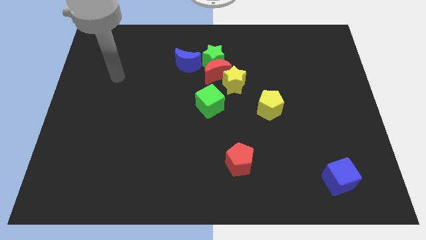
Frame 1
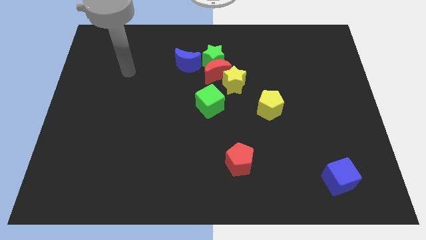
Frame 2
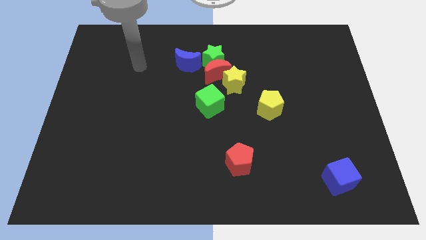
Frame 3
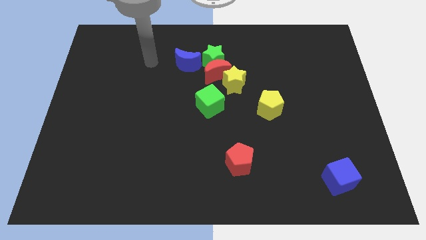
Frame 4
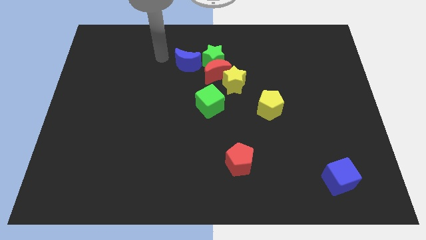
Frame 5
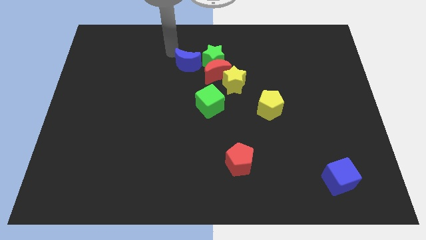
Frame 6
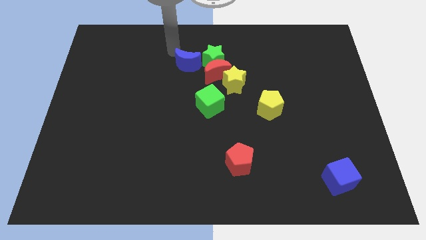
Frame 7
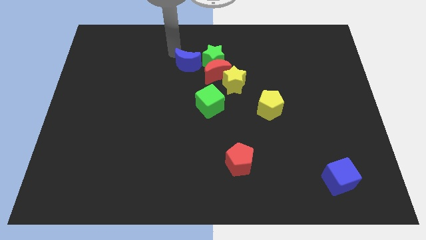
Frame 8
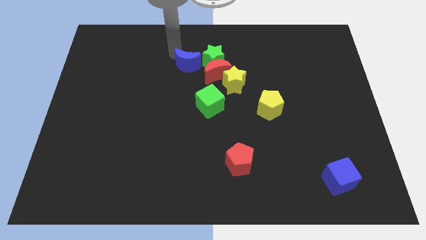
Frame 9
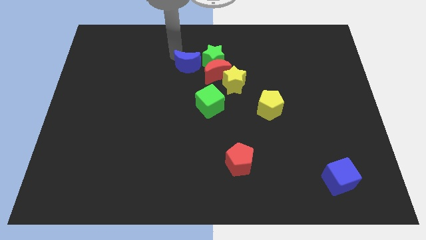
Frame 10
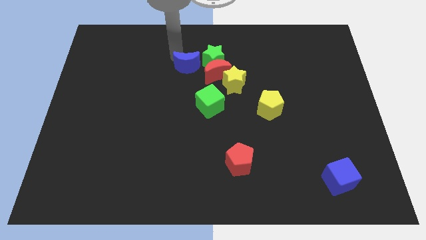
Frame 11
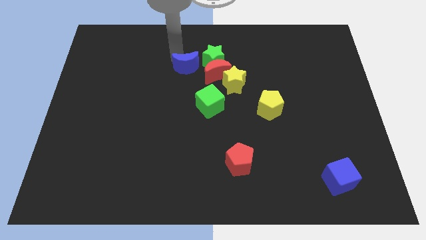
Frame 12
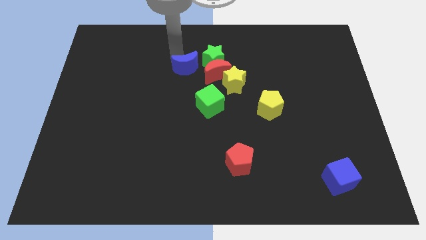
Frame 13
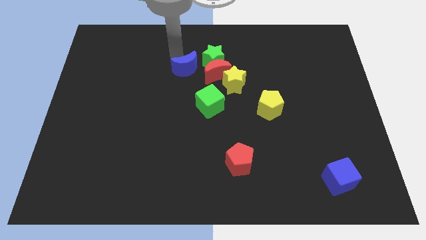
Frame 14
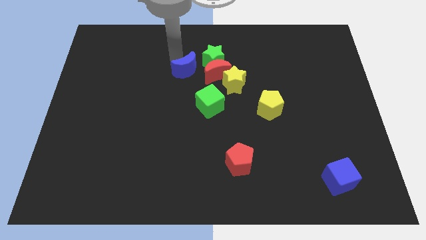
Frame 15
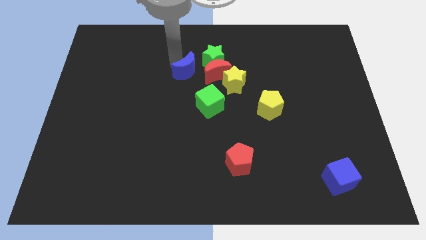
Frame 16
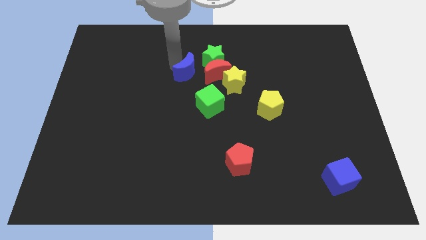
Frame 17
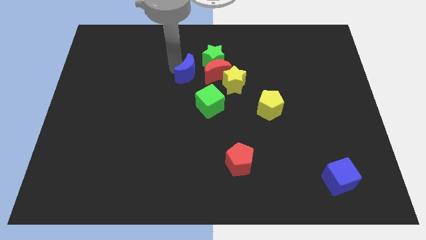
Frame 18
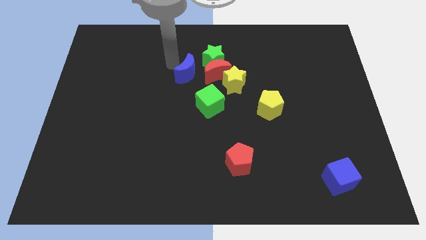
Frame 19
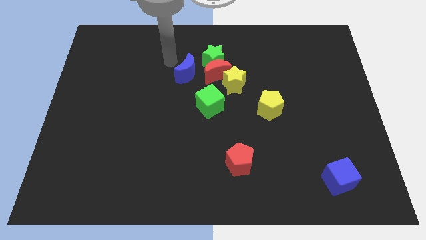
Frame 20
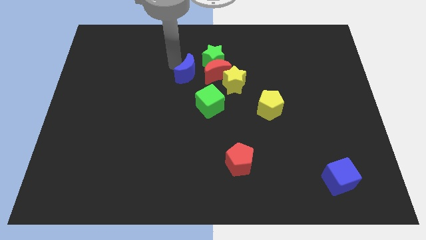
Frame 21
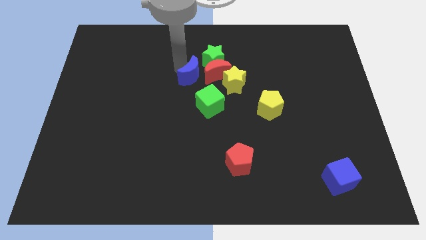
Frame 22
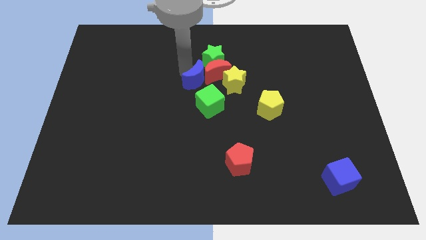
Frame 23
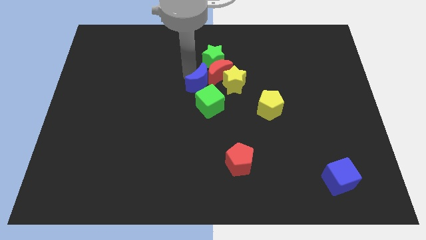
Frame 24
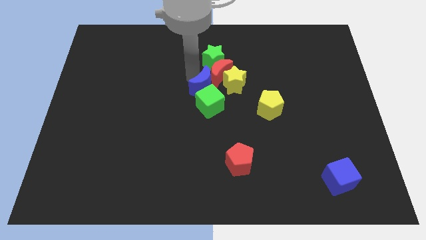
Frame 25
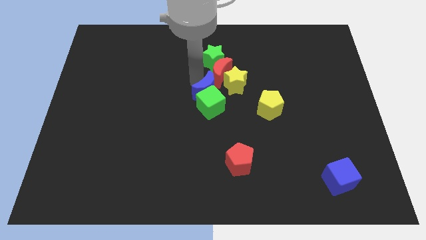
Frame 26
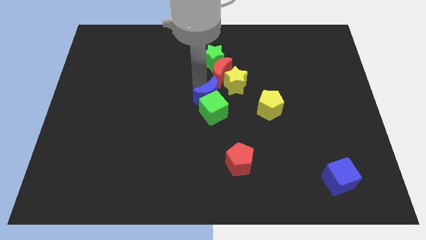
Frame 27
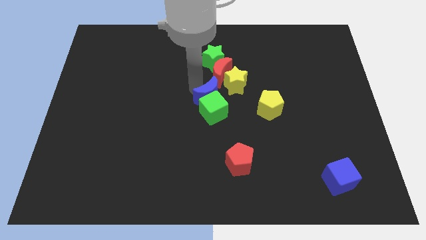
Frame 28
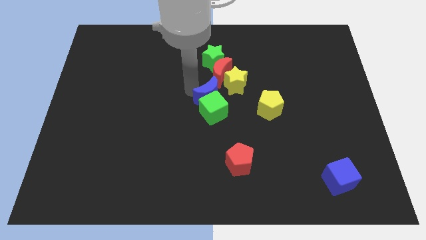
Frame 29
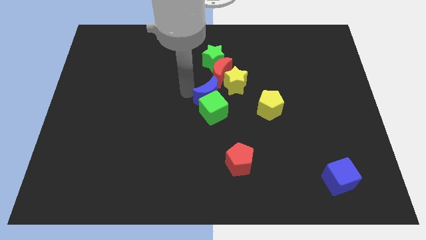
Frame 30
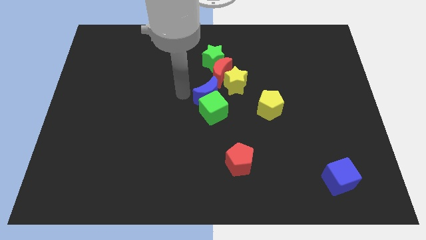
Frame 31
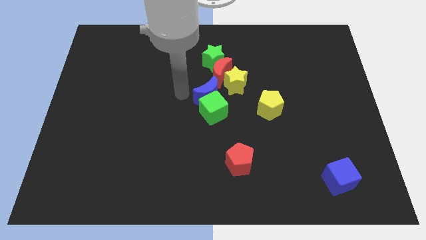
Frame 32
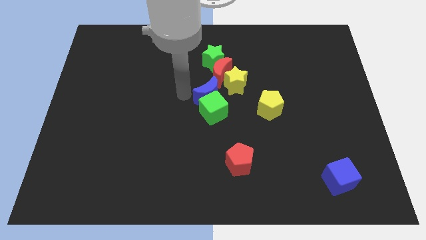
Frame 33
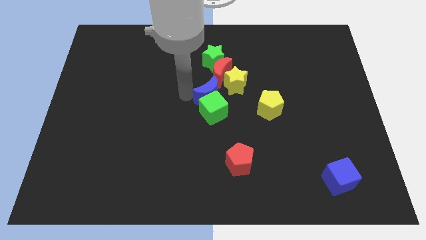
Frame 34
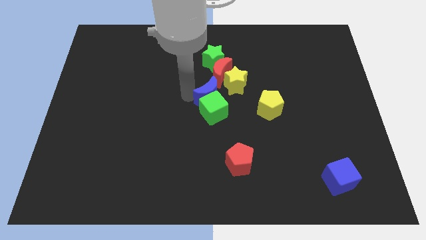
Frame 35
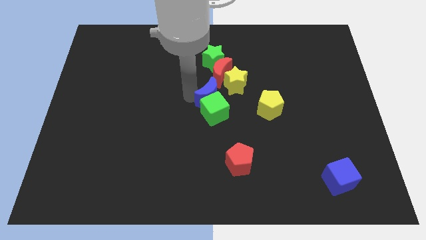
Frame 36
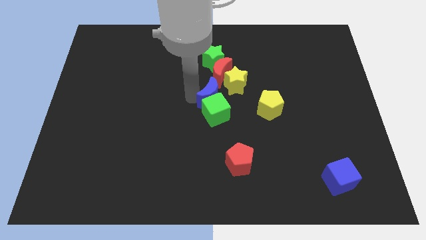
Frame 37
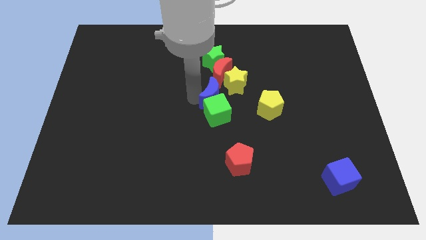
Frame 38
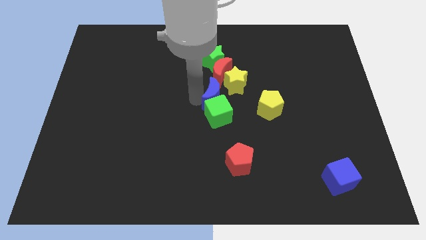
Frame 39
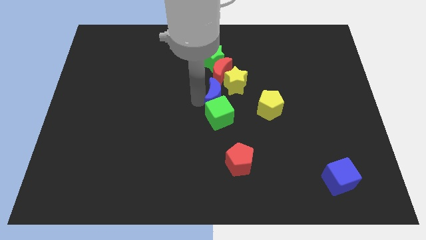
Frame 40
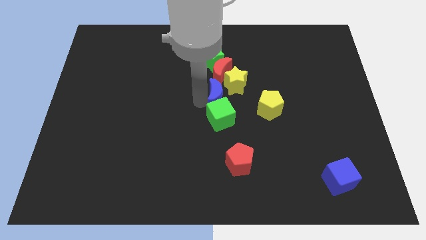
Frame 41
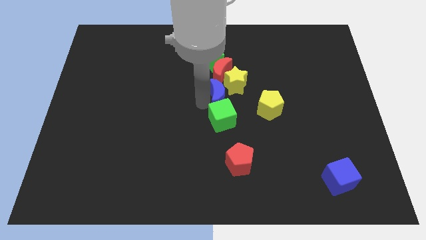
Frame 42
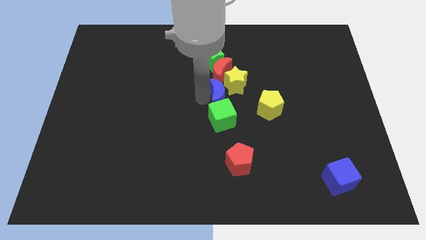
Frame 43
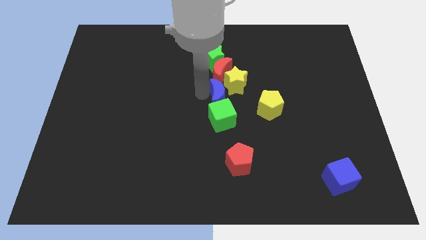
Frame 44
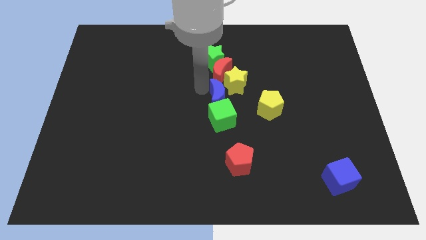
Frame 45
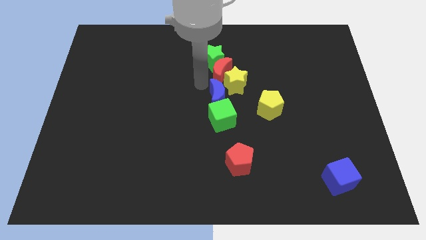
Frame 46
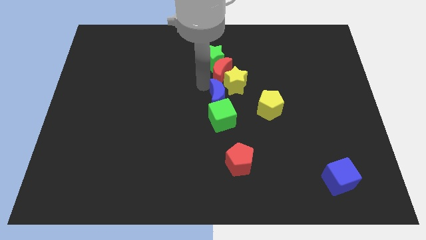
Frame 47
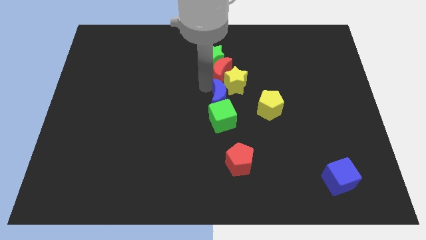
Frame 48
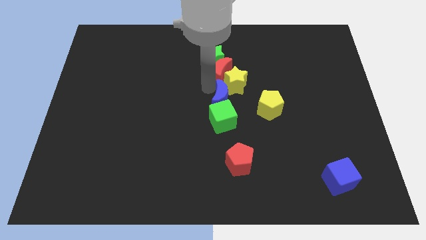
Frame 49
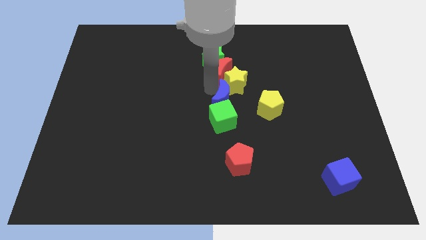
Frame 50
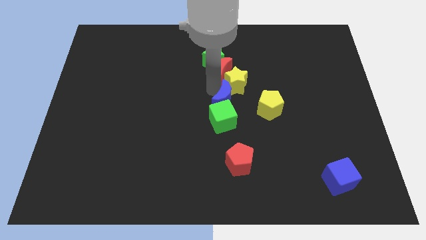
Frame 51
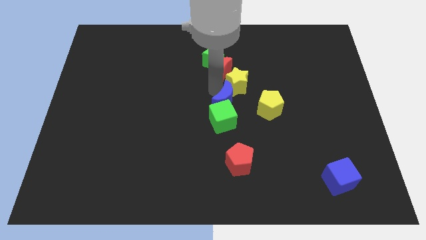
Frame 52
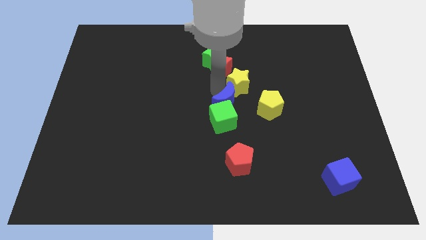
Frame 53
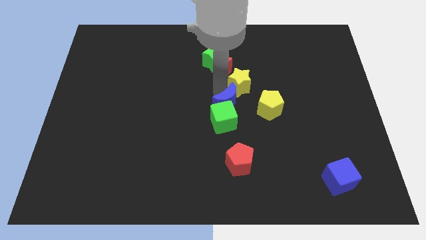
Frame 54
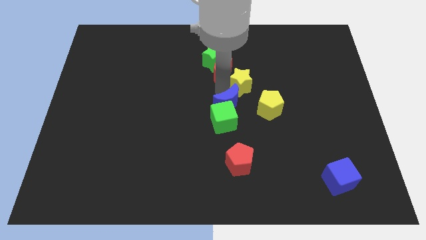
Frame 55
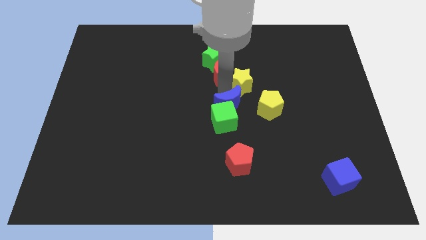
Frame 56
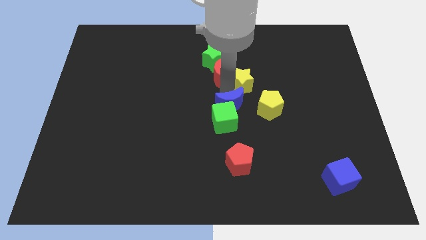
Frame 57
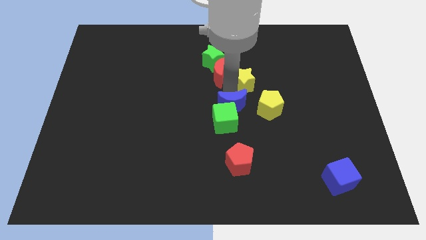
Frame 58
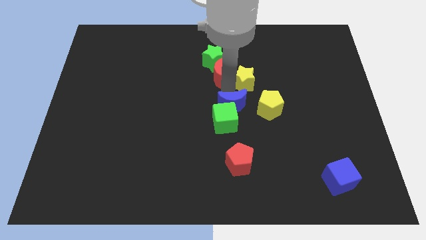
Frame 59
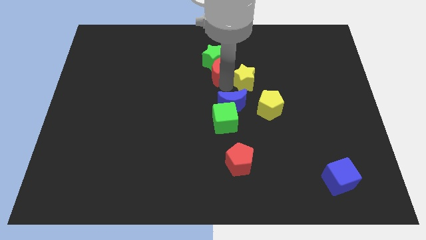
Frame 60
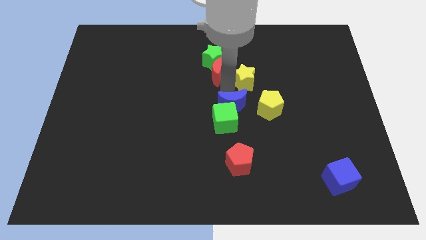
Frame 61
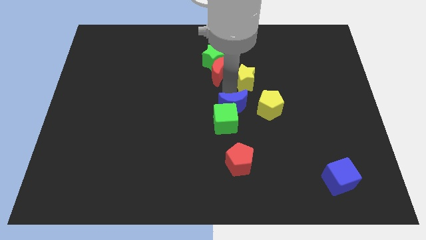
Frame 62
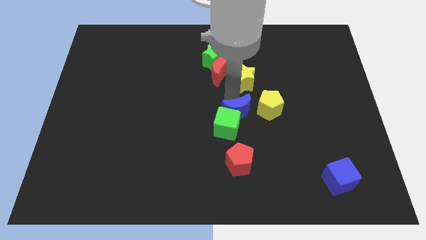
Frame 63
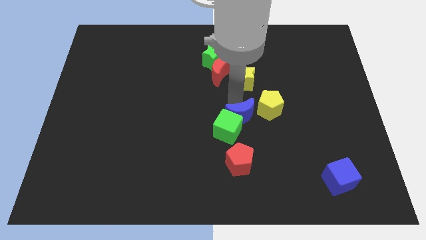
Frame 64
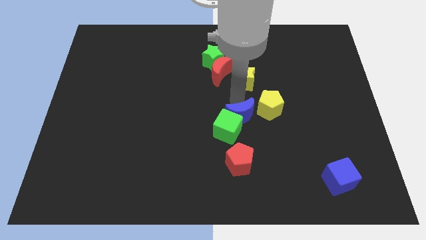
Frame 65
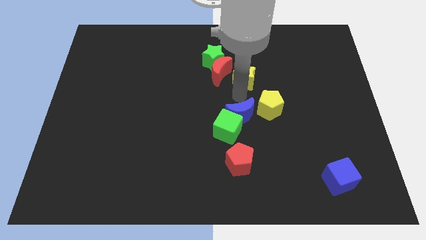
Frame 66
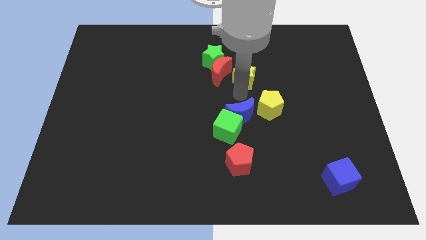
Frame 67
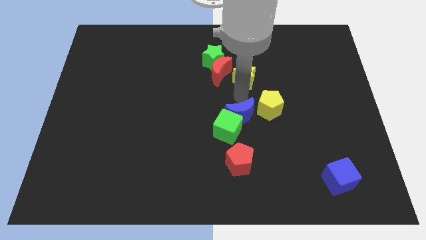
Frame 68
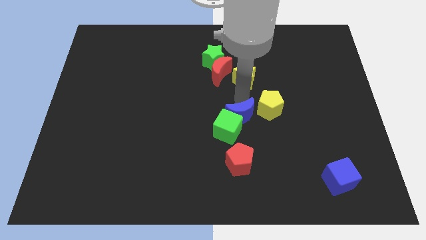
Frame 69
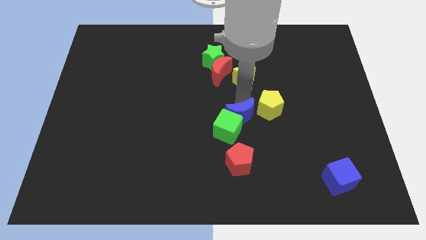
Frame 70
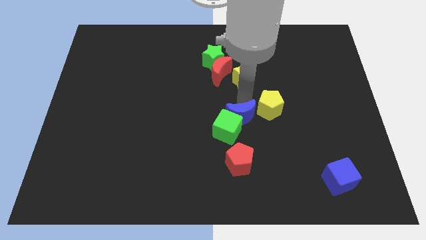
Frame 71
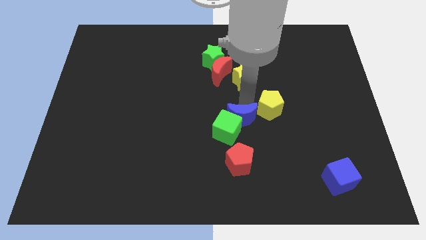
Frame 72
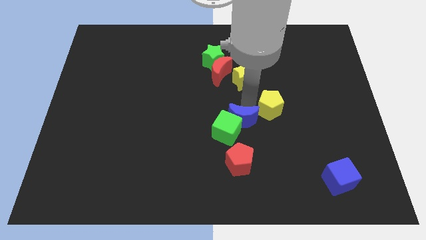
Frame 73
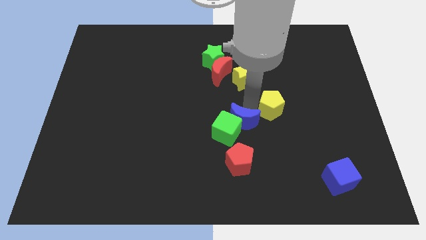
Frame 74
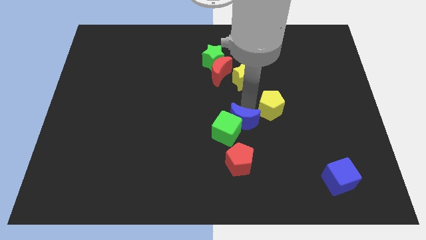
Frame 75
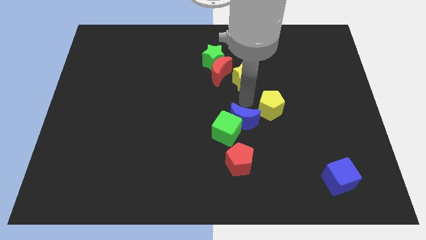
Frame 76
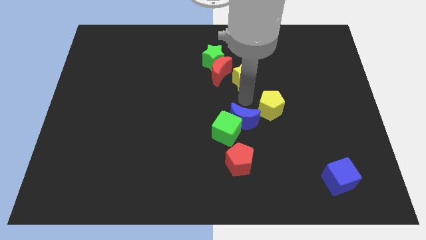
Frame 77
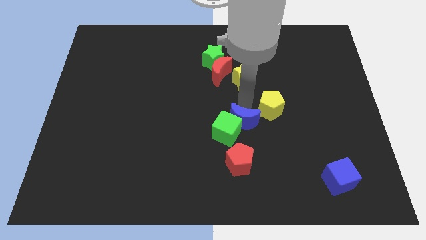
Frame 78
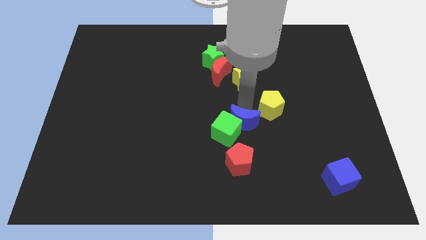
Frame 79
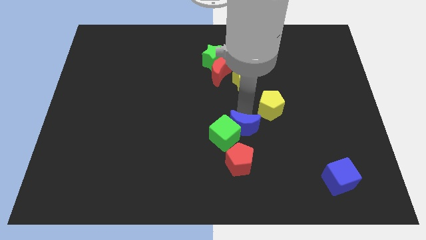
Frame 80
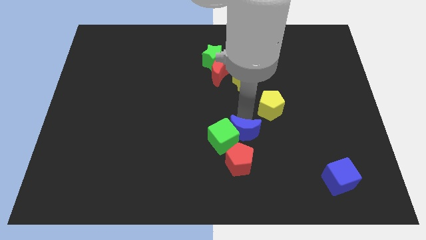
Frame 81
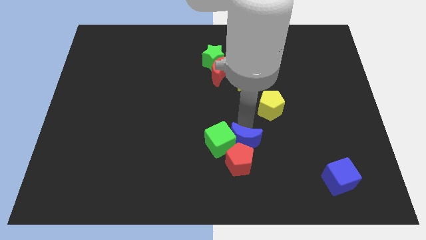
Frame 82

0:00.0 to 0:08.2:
push the blue moon to the red pentagon
